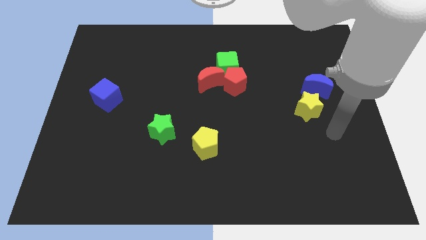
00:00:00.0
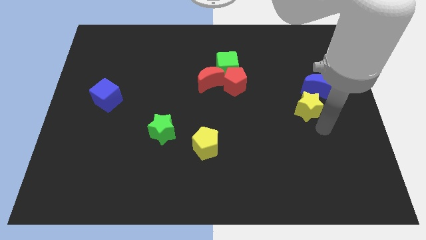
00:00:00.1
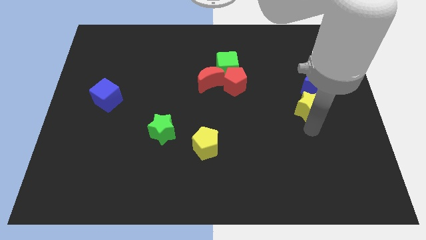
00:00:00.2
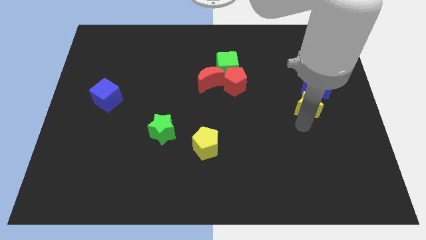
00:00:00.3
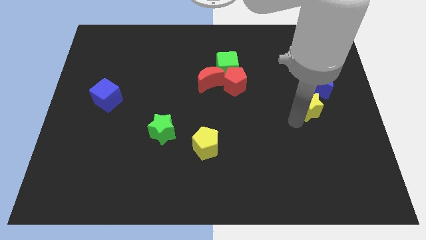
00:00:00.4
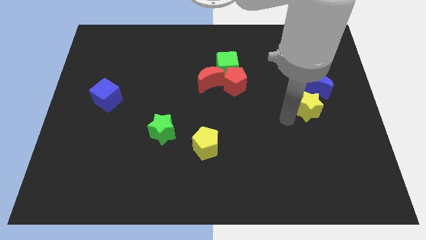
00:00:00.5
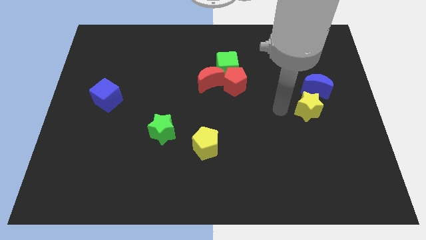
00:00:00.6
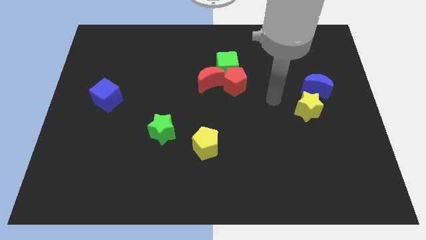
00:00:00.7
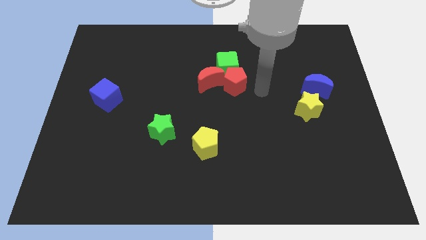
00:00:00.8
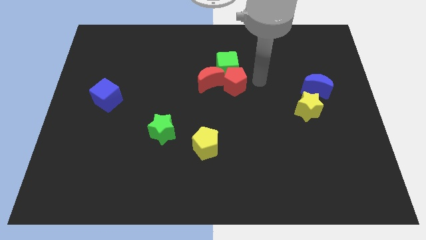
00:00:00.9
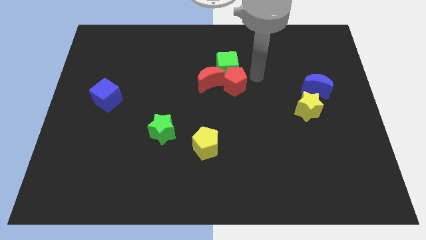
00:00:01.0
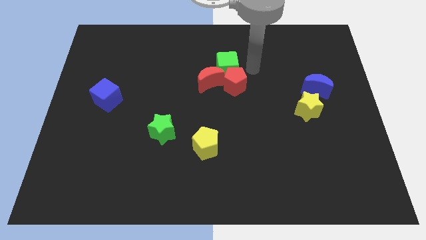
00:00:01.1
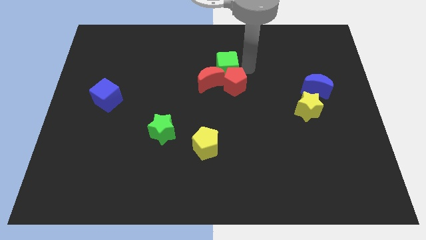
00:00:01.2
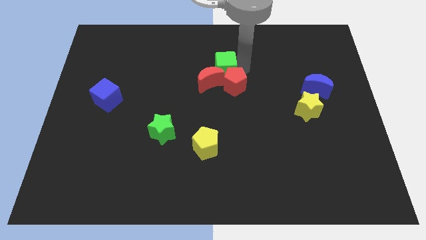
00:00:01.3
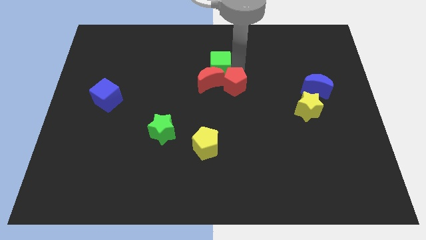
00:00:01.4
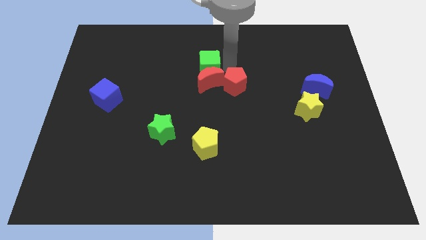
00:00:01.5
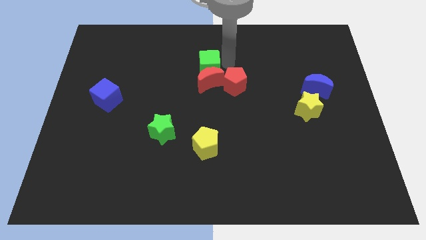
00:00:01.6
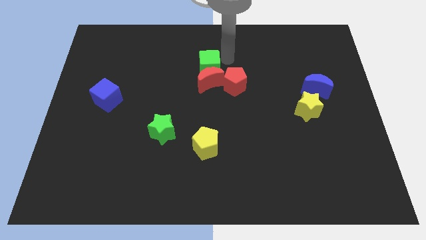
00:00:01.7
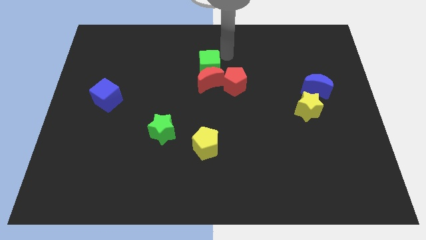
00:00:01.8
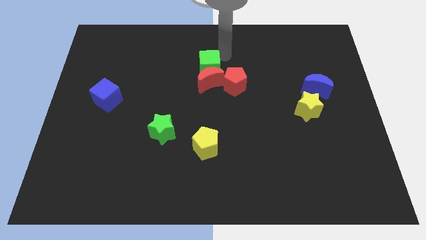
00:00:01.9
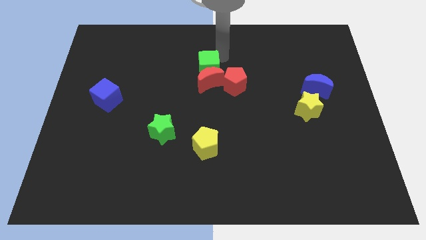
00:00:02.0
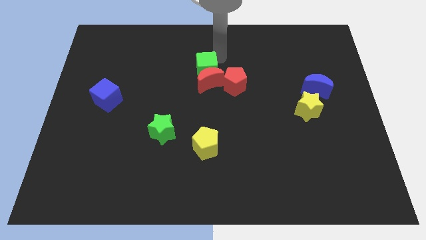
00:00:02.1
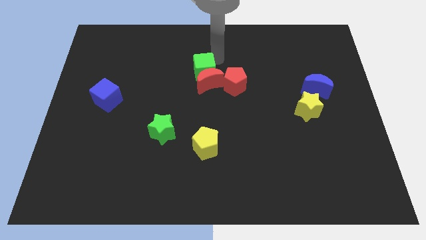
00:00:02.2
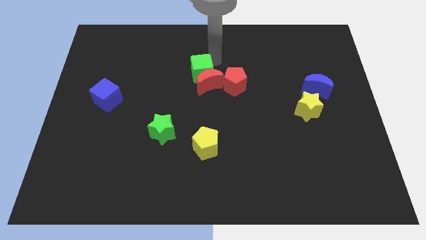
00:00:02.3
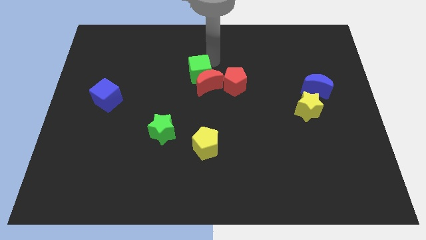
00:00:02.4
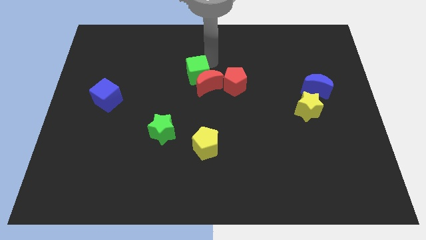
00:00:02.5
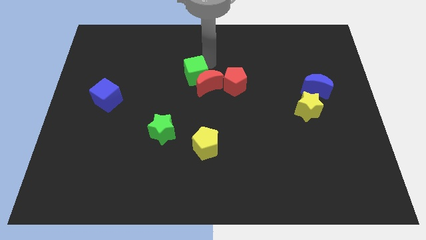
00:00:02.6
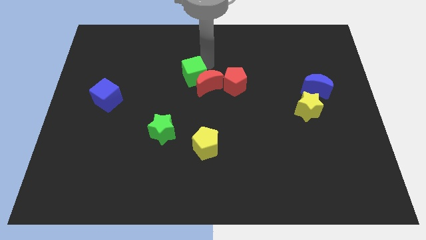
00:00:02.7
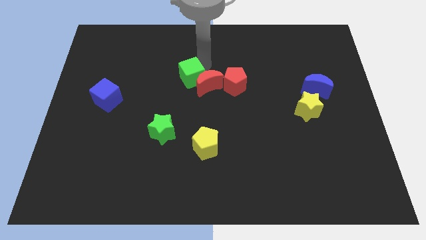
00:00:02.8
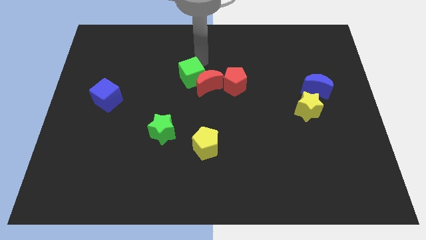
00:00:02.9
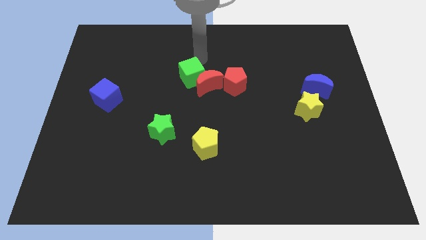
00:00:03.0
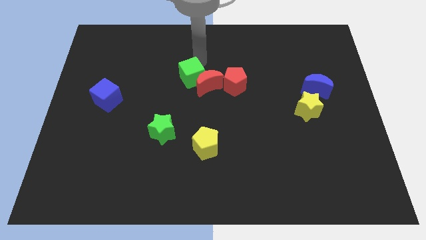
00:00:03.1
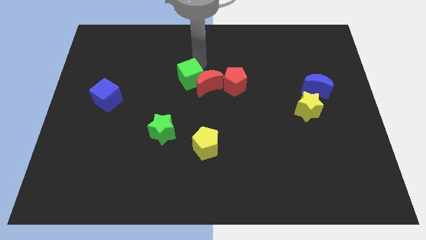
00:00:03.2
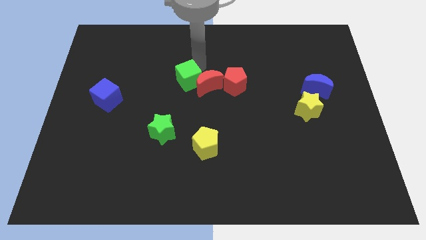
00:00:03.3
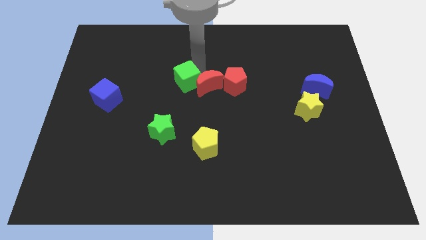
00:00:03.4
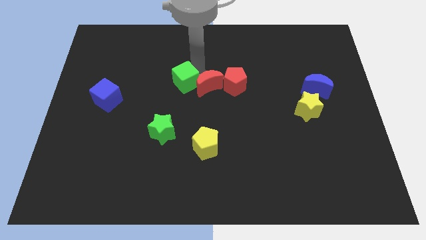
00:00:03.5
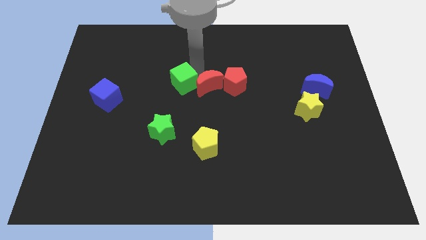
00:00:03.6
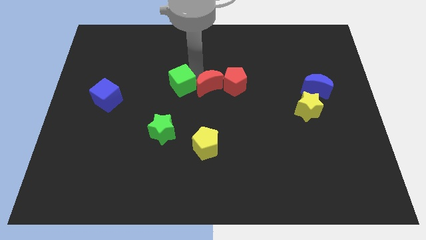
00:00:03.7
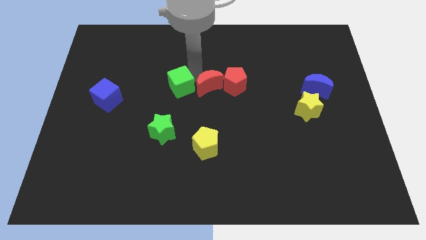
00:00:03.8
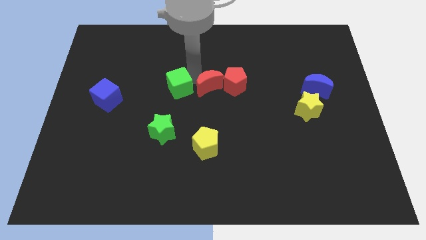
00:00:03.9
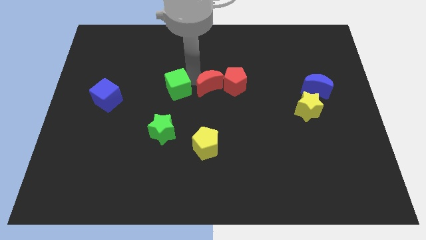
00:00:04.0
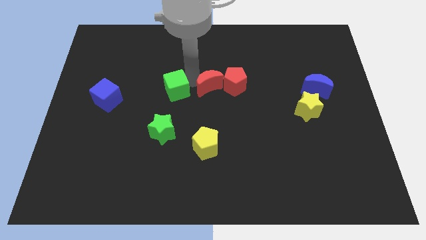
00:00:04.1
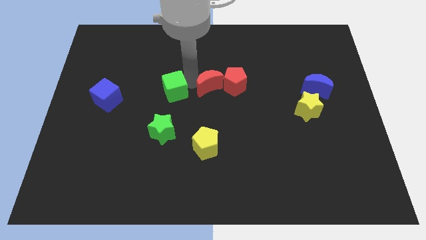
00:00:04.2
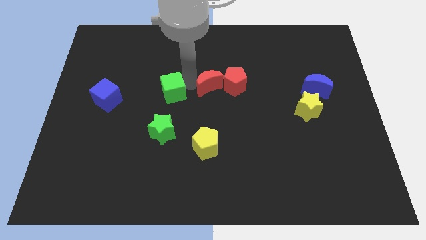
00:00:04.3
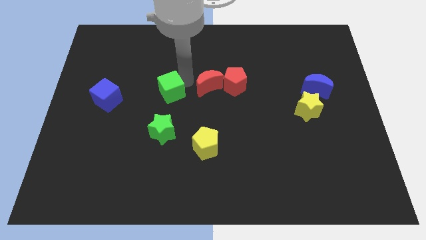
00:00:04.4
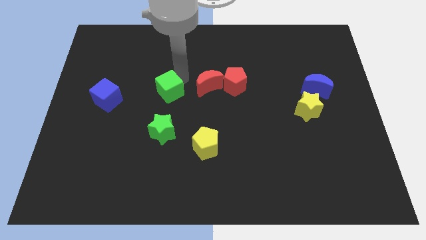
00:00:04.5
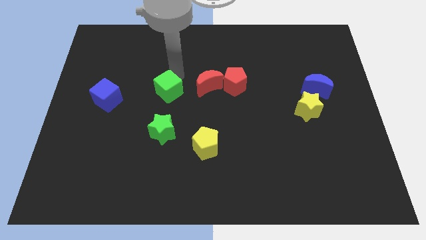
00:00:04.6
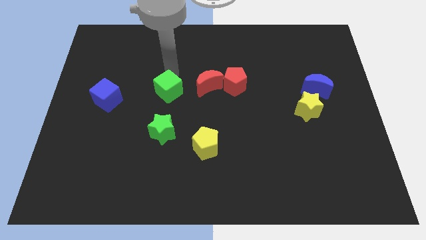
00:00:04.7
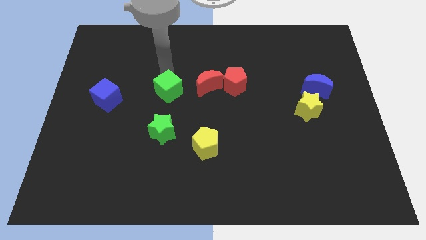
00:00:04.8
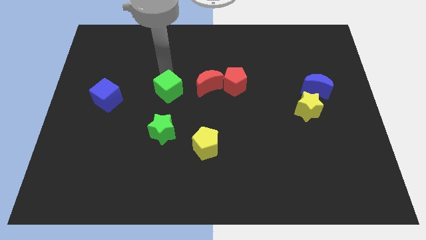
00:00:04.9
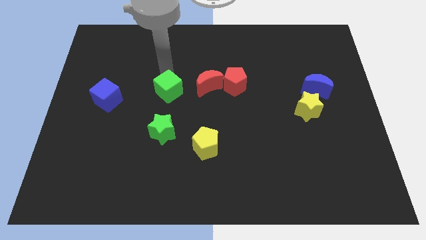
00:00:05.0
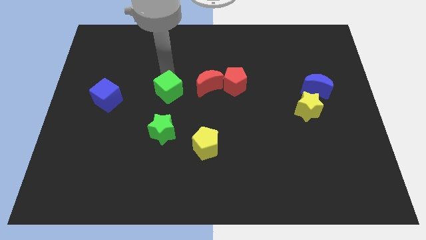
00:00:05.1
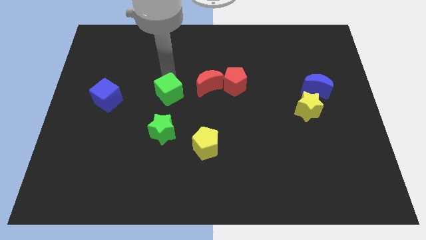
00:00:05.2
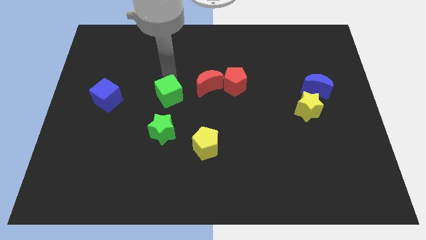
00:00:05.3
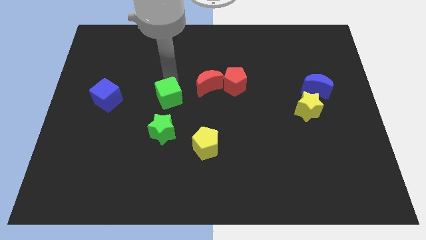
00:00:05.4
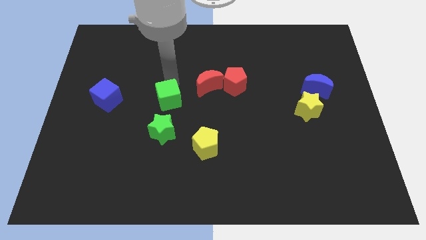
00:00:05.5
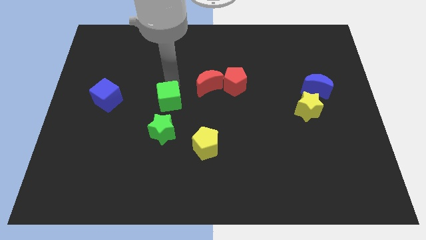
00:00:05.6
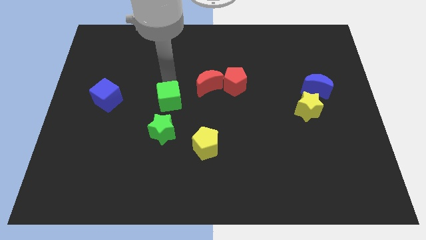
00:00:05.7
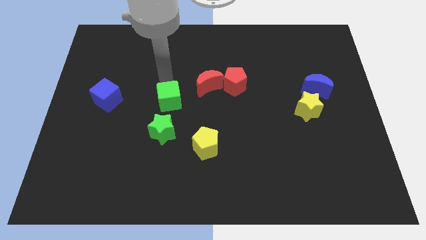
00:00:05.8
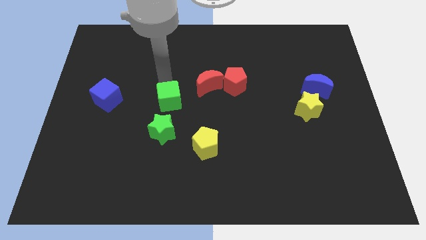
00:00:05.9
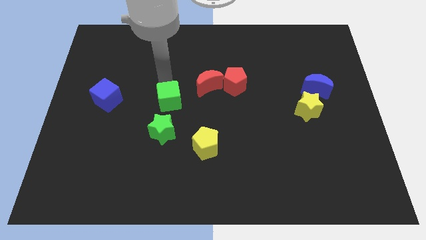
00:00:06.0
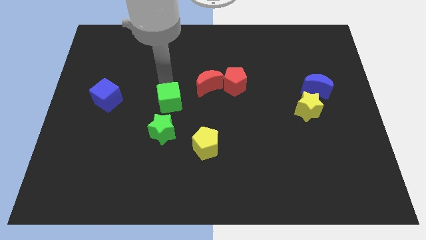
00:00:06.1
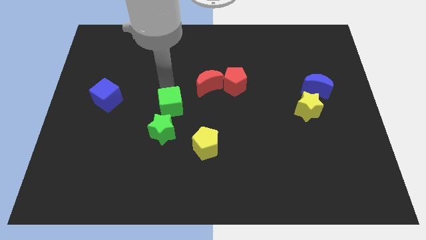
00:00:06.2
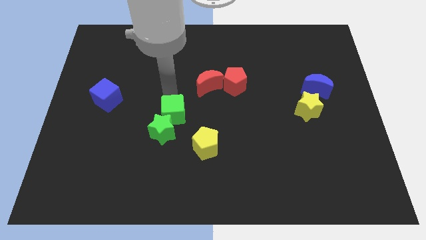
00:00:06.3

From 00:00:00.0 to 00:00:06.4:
push the green cube next to the green star
